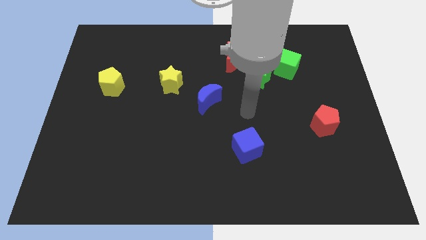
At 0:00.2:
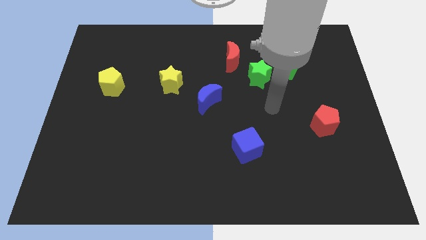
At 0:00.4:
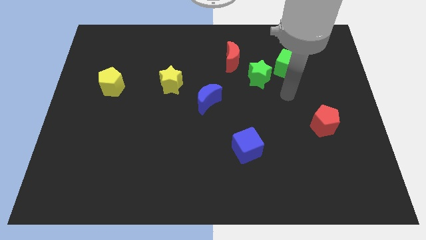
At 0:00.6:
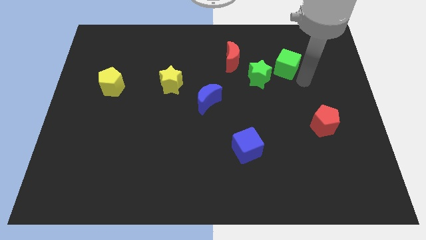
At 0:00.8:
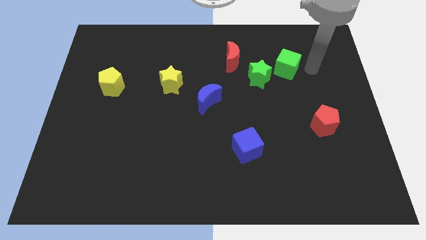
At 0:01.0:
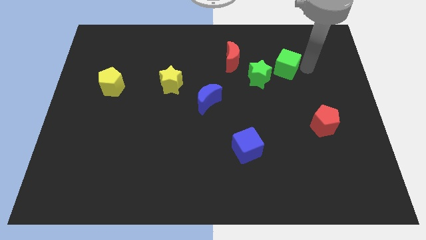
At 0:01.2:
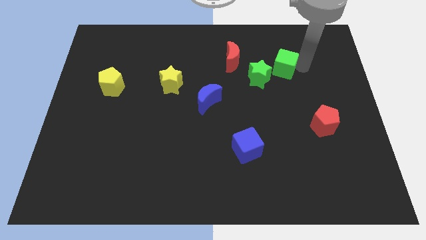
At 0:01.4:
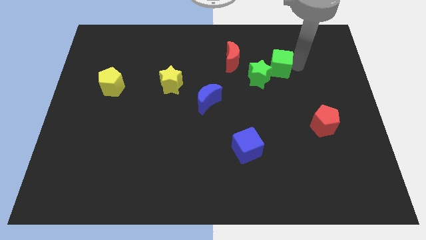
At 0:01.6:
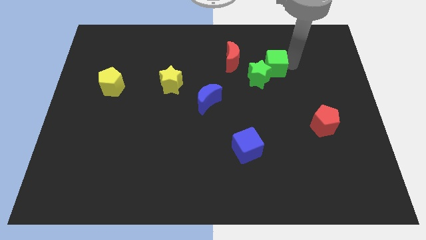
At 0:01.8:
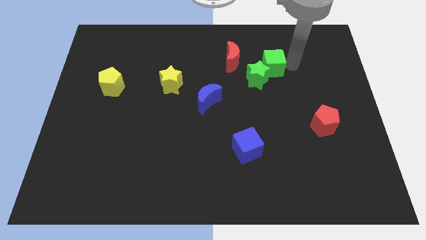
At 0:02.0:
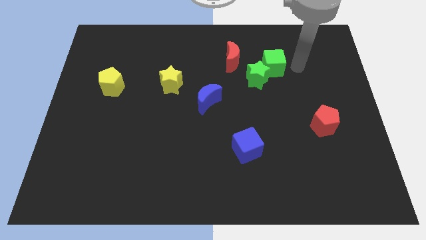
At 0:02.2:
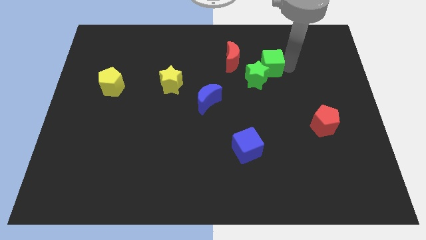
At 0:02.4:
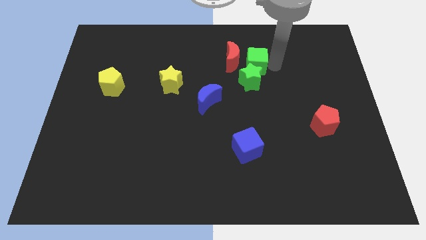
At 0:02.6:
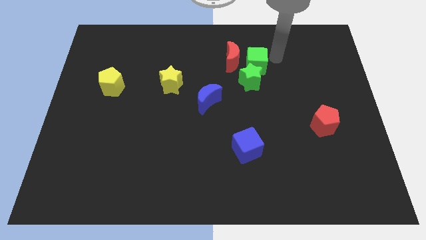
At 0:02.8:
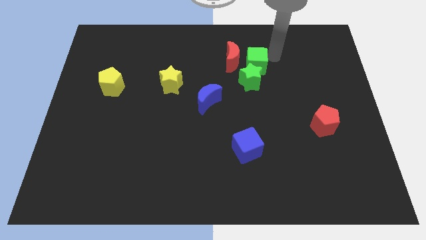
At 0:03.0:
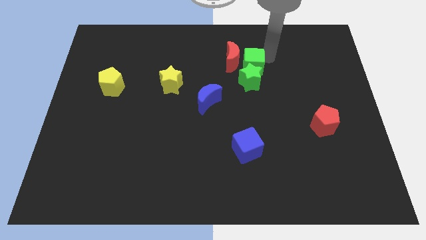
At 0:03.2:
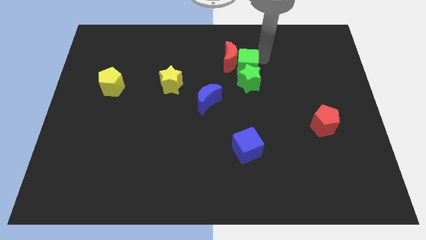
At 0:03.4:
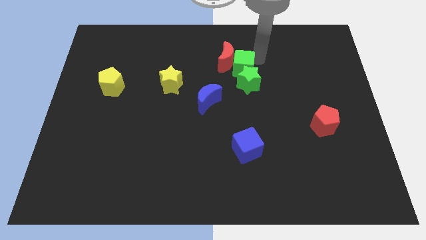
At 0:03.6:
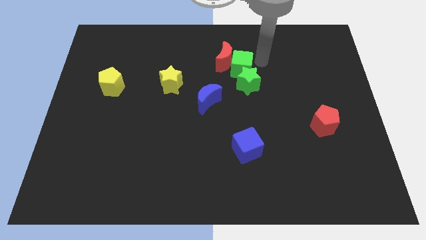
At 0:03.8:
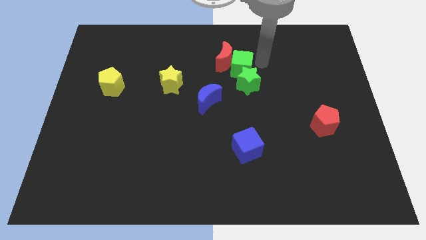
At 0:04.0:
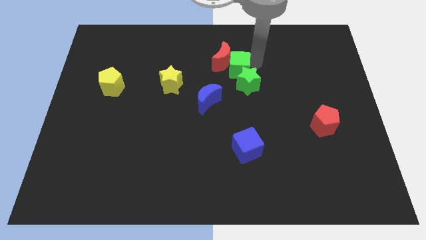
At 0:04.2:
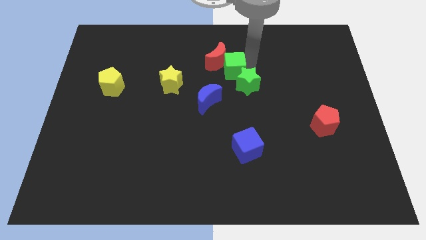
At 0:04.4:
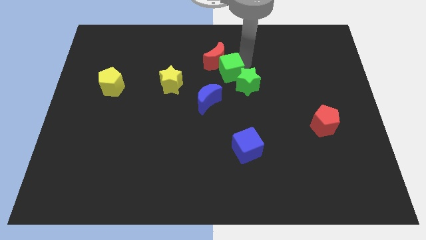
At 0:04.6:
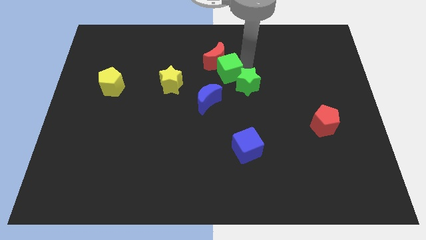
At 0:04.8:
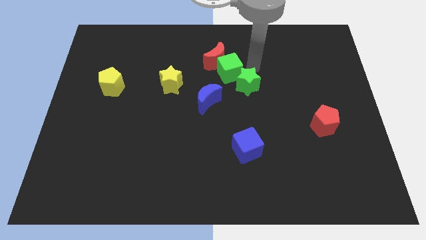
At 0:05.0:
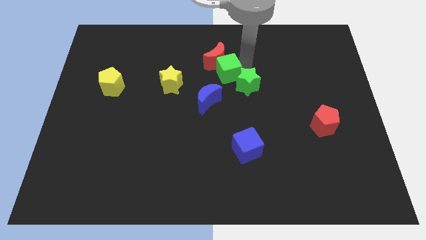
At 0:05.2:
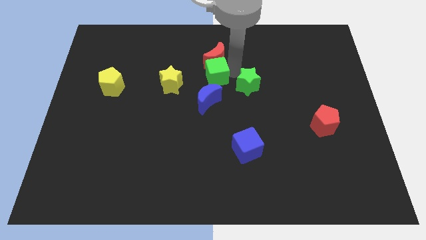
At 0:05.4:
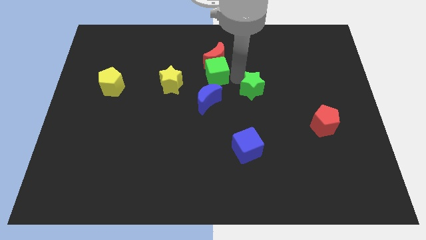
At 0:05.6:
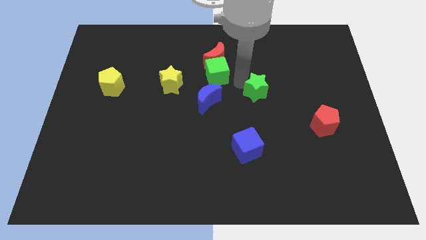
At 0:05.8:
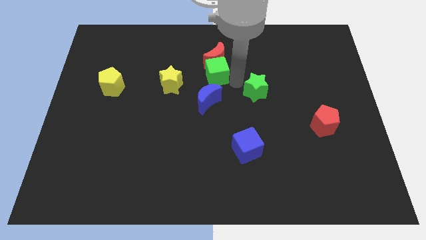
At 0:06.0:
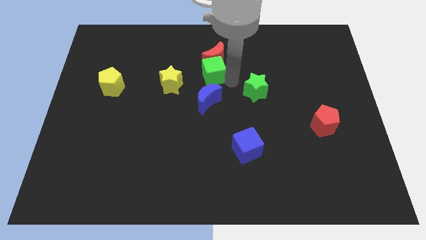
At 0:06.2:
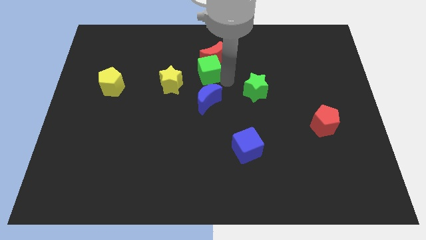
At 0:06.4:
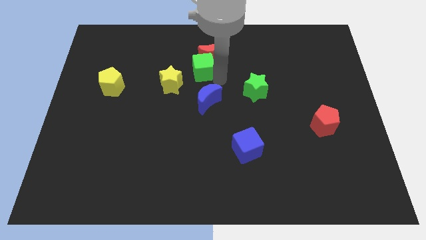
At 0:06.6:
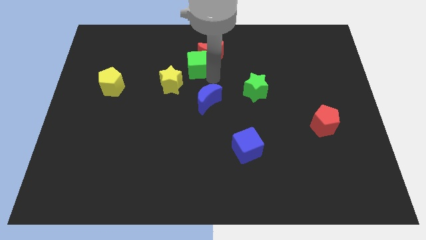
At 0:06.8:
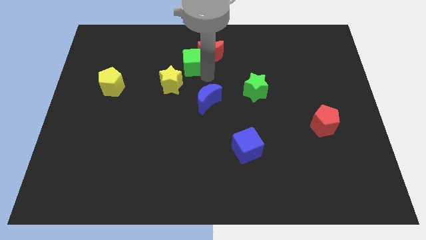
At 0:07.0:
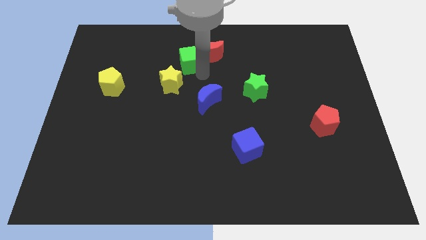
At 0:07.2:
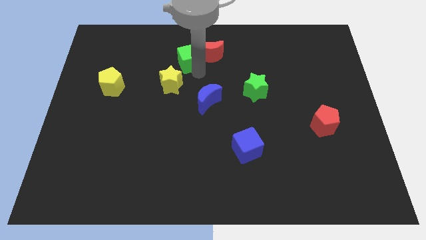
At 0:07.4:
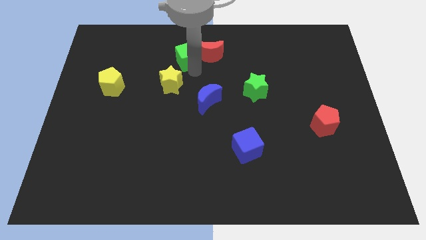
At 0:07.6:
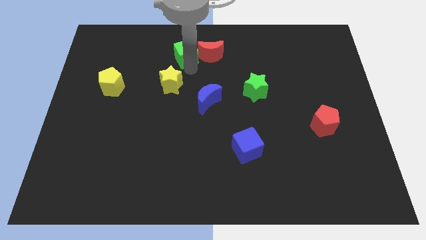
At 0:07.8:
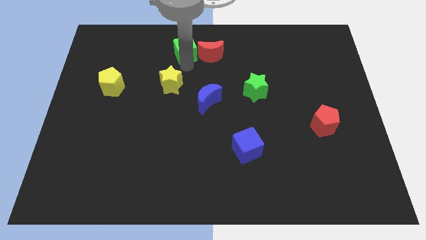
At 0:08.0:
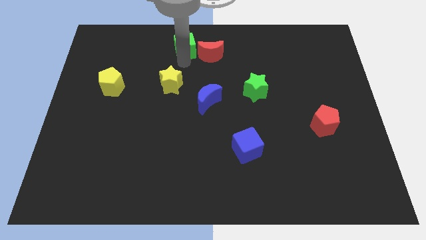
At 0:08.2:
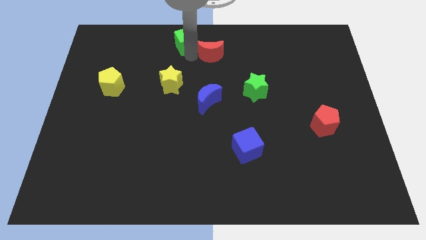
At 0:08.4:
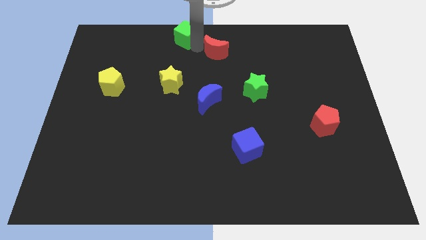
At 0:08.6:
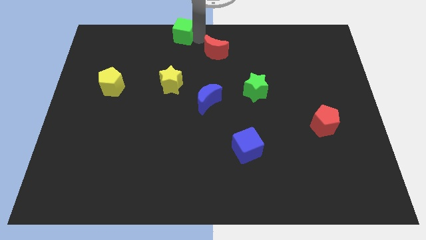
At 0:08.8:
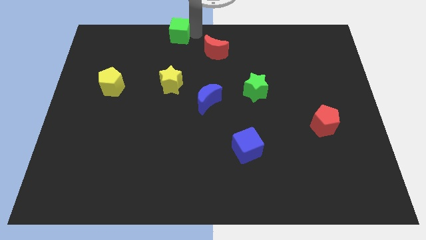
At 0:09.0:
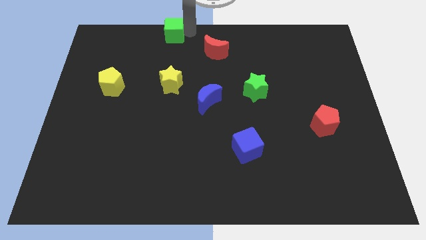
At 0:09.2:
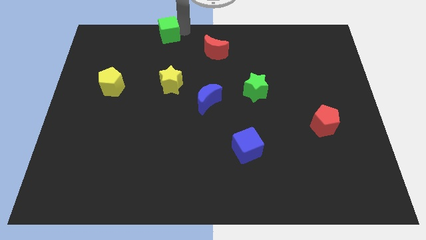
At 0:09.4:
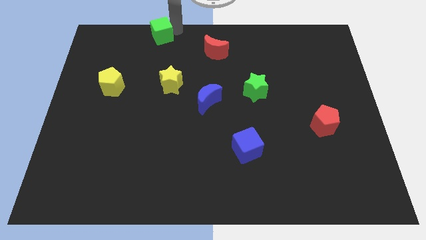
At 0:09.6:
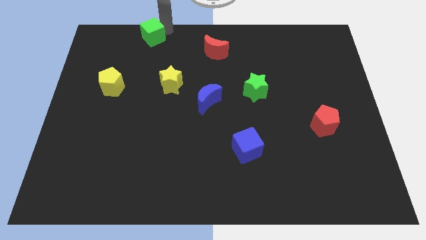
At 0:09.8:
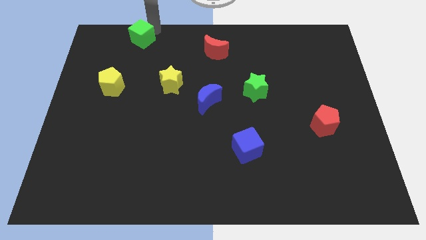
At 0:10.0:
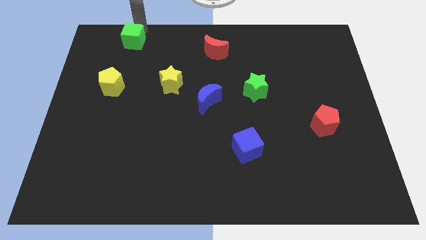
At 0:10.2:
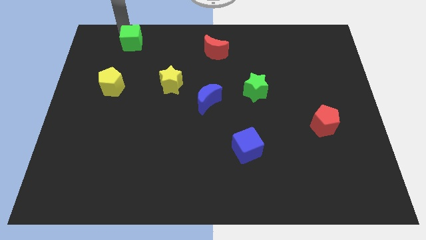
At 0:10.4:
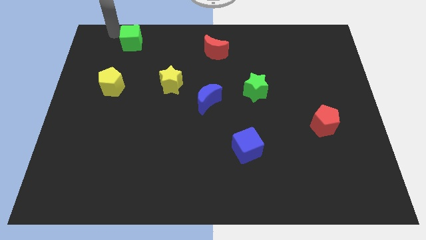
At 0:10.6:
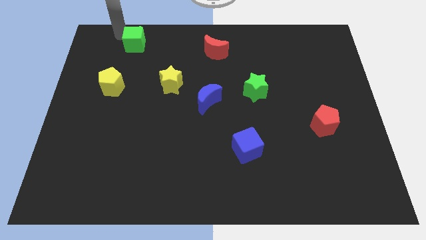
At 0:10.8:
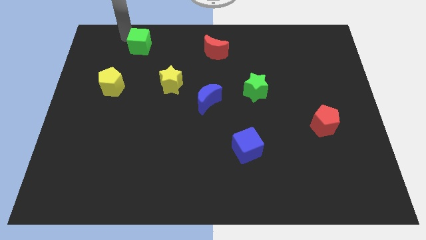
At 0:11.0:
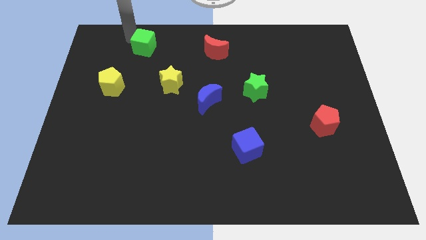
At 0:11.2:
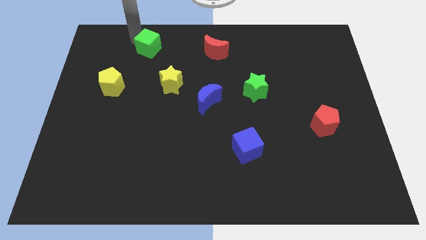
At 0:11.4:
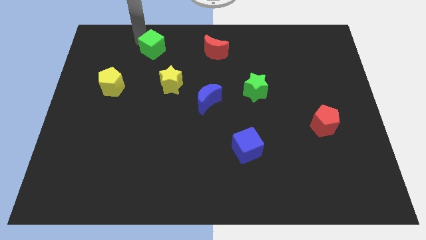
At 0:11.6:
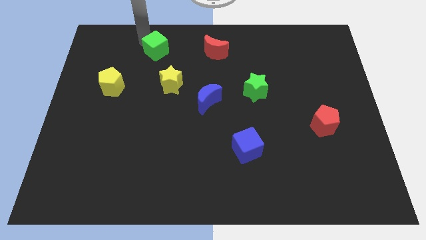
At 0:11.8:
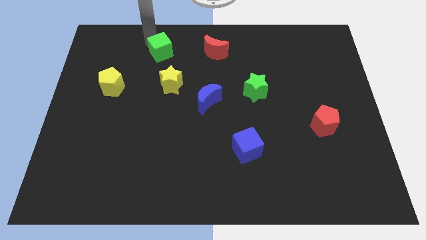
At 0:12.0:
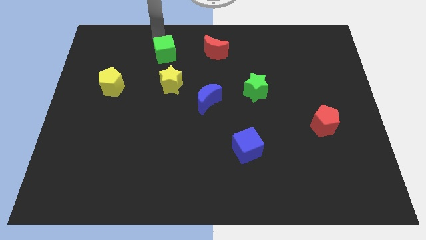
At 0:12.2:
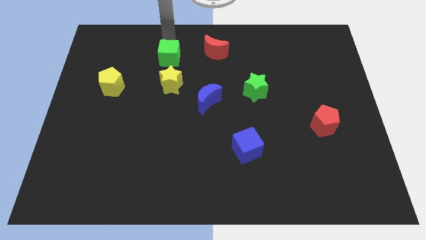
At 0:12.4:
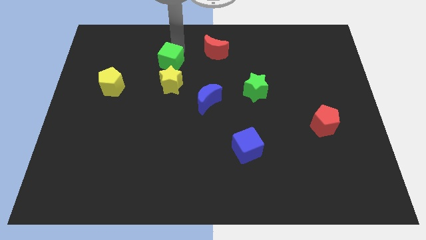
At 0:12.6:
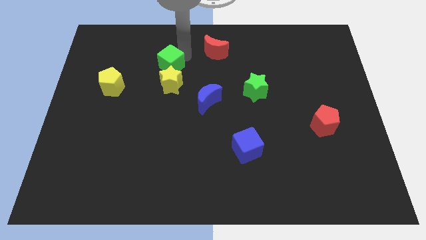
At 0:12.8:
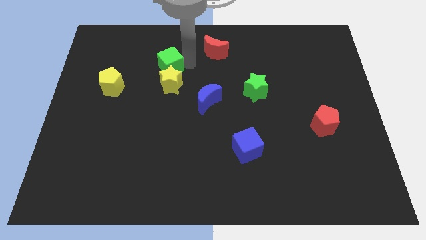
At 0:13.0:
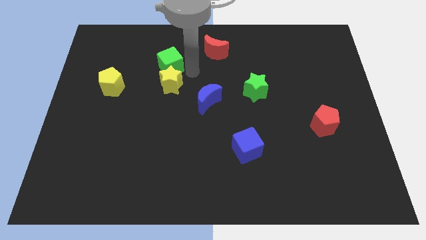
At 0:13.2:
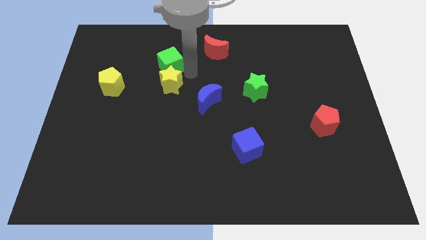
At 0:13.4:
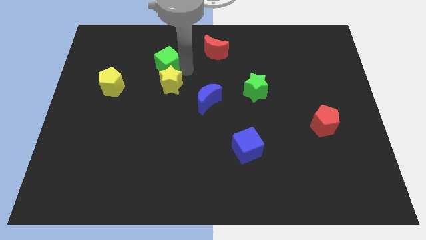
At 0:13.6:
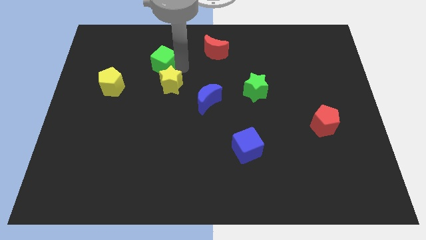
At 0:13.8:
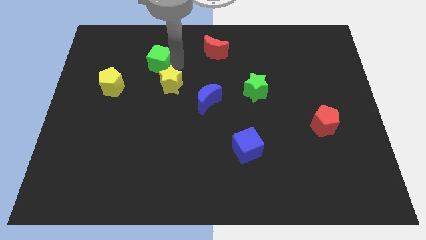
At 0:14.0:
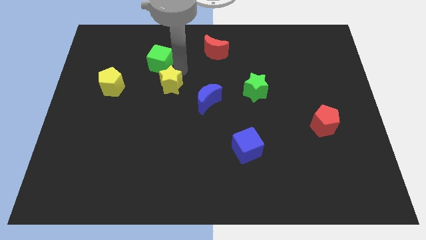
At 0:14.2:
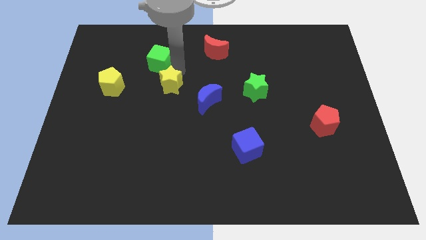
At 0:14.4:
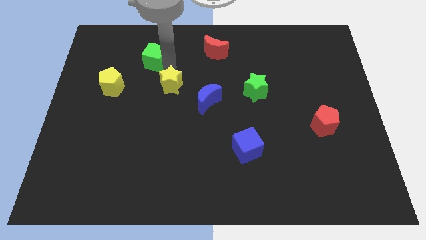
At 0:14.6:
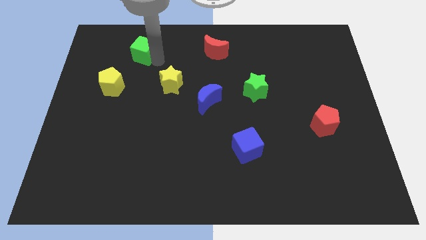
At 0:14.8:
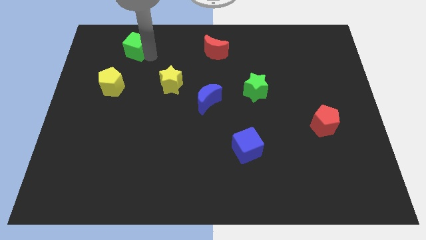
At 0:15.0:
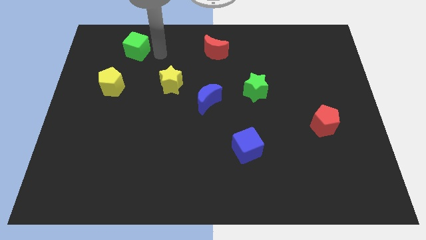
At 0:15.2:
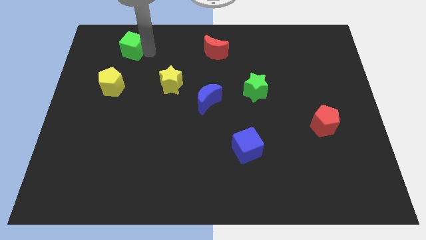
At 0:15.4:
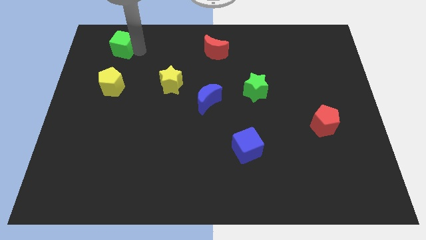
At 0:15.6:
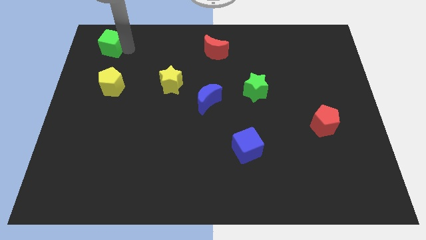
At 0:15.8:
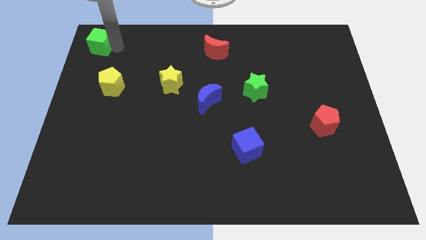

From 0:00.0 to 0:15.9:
put the green cube to the top left of the board
